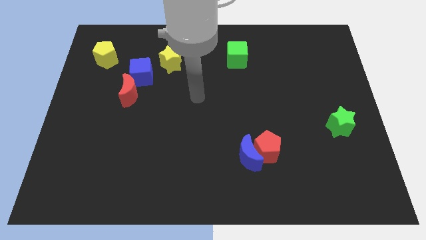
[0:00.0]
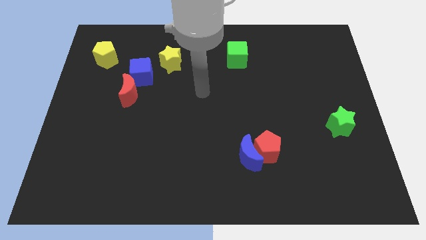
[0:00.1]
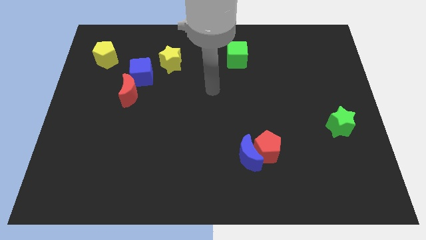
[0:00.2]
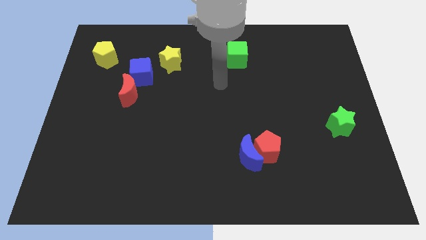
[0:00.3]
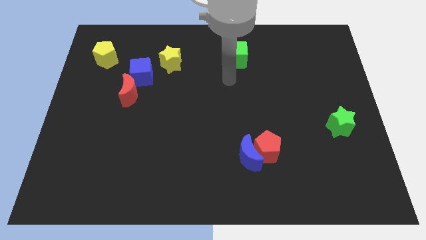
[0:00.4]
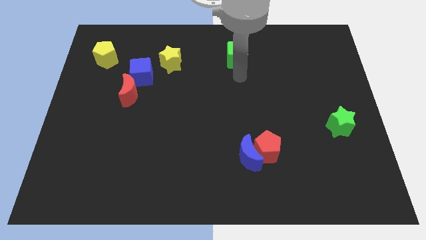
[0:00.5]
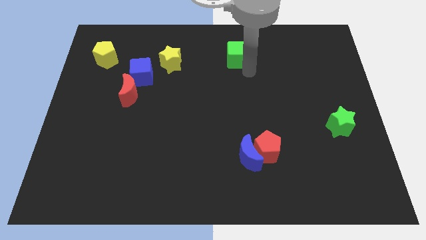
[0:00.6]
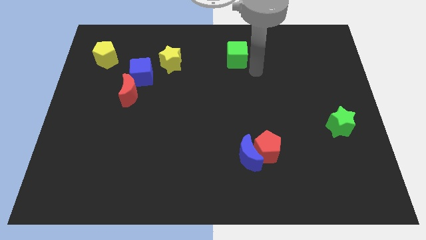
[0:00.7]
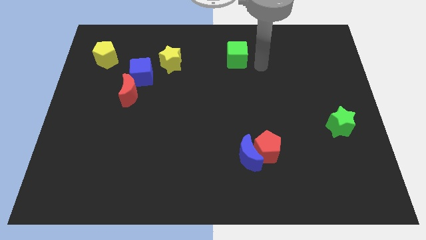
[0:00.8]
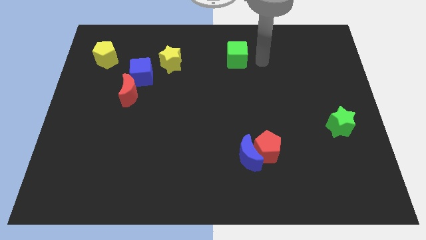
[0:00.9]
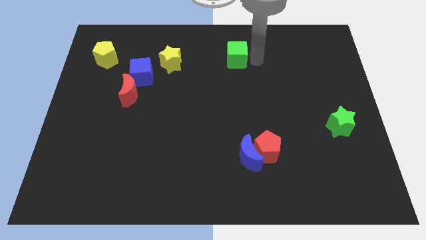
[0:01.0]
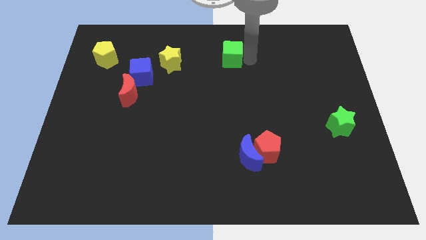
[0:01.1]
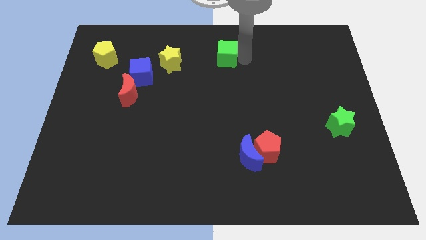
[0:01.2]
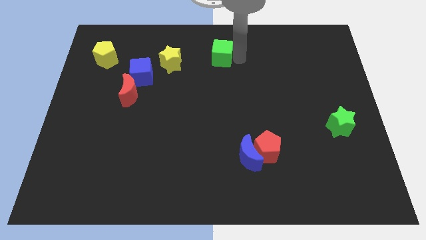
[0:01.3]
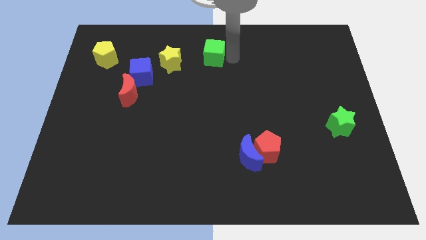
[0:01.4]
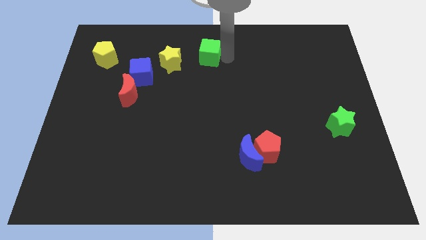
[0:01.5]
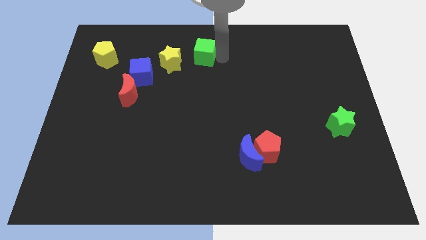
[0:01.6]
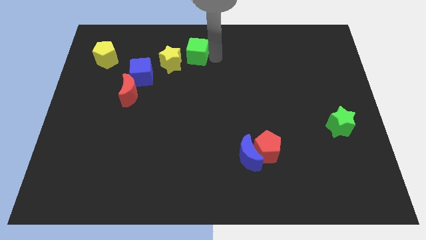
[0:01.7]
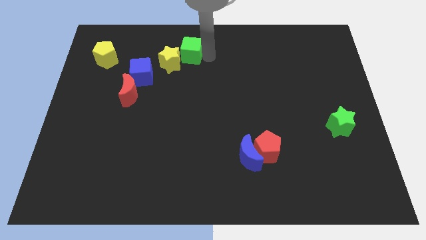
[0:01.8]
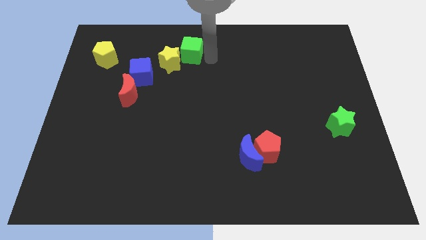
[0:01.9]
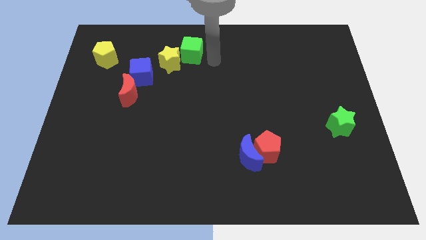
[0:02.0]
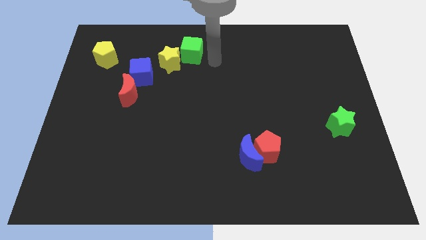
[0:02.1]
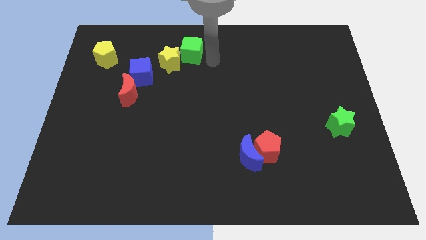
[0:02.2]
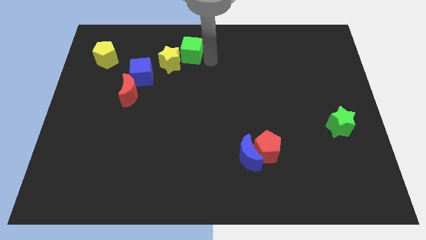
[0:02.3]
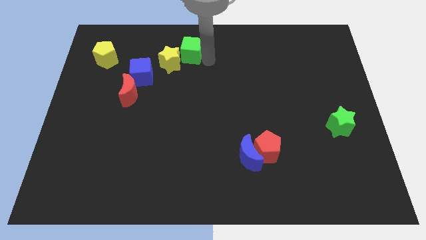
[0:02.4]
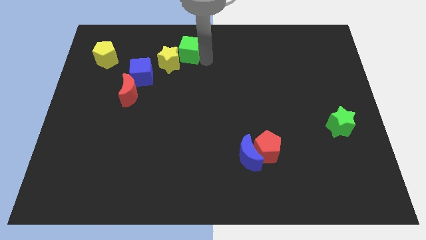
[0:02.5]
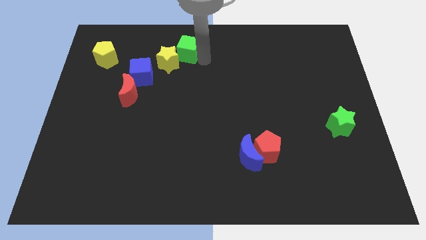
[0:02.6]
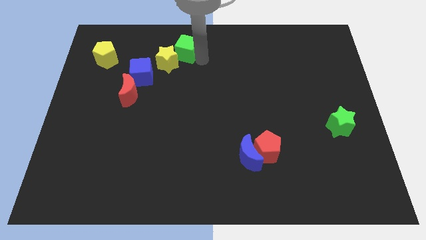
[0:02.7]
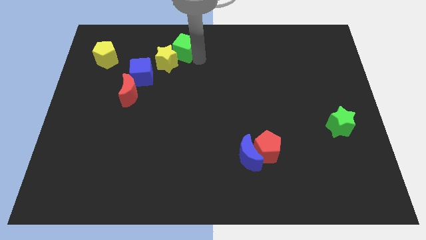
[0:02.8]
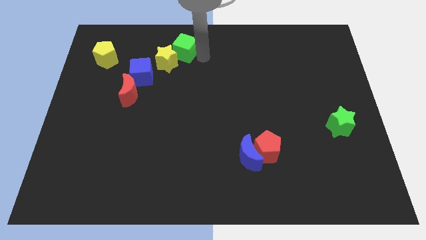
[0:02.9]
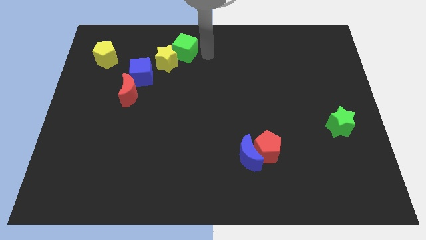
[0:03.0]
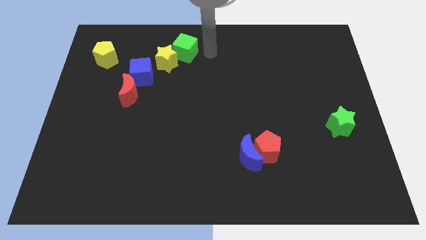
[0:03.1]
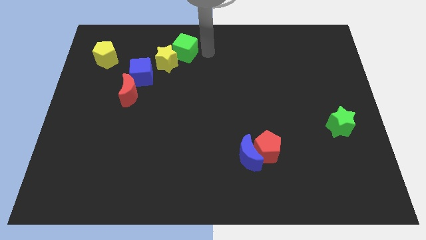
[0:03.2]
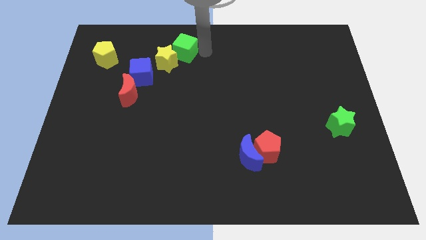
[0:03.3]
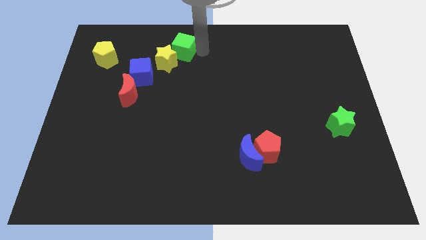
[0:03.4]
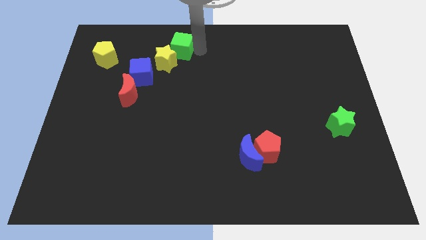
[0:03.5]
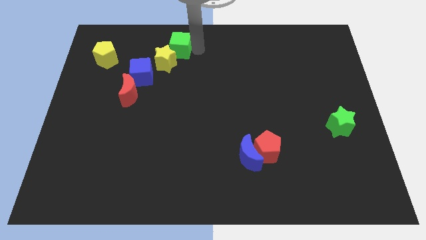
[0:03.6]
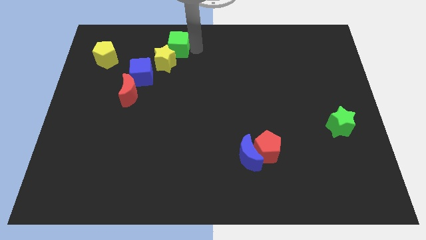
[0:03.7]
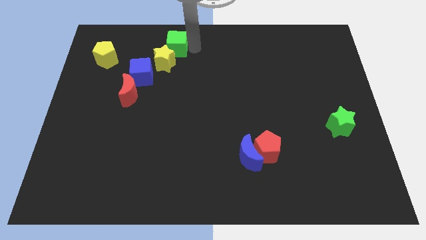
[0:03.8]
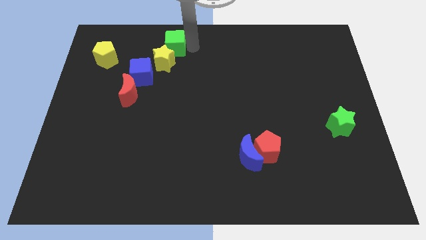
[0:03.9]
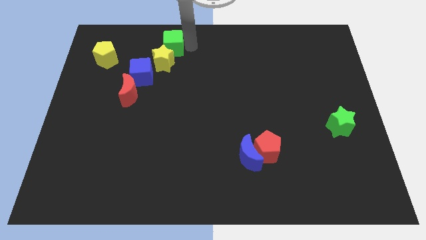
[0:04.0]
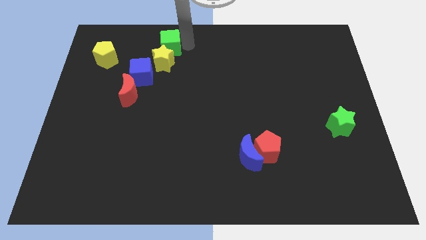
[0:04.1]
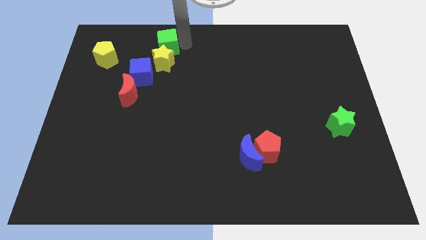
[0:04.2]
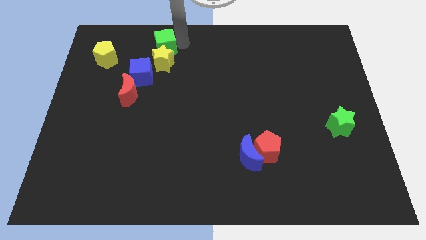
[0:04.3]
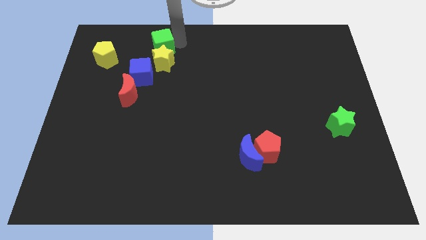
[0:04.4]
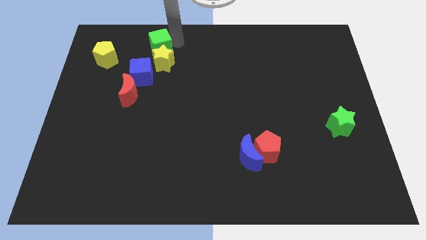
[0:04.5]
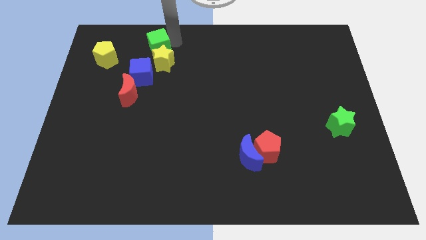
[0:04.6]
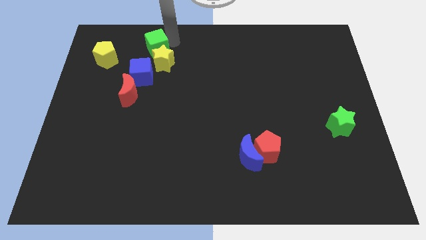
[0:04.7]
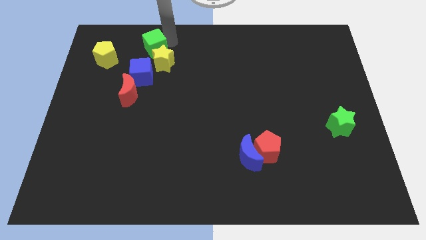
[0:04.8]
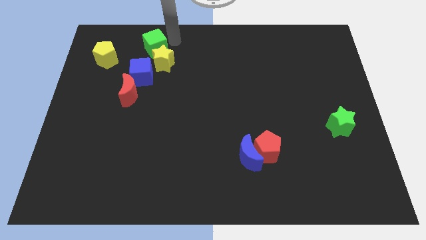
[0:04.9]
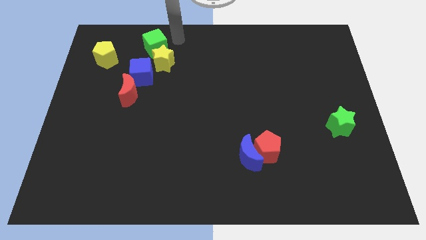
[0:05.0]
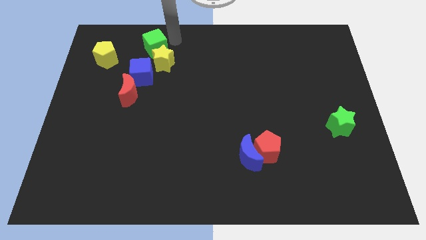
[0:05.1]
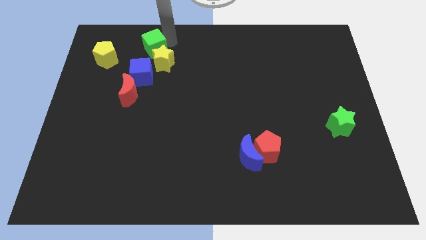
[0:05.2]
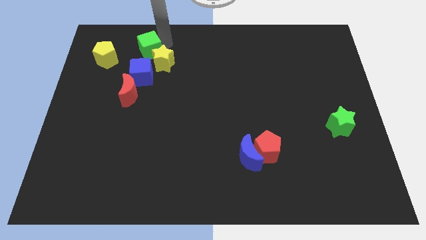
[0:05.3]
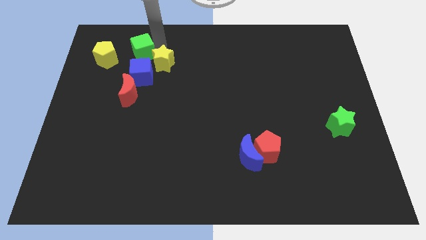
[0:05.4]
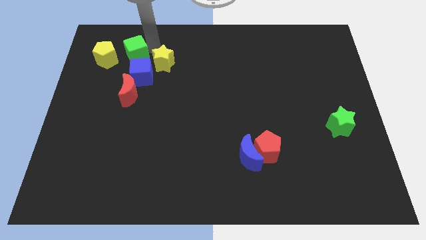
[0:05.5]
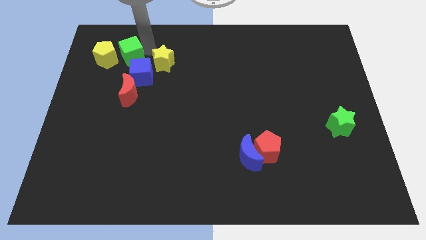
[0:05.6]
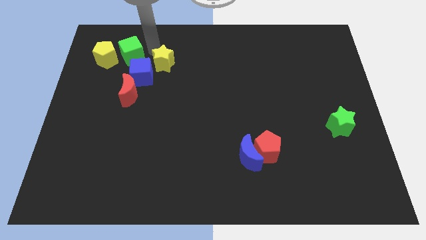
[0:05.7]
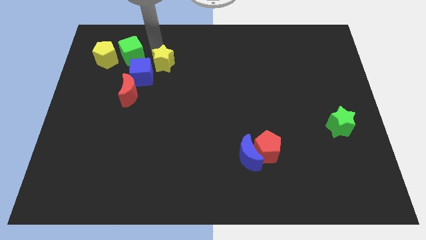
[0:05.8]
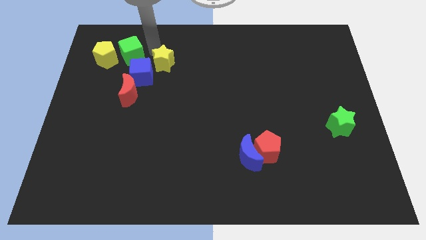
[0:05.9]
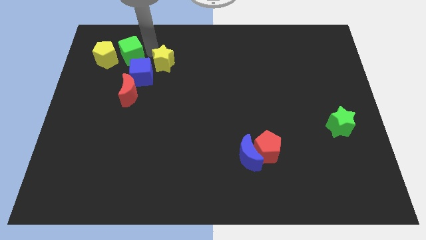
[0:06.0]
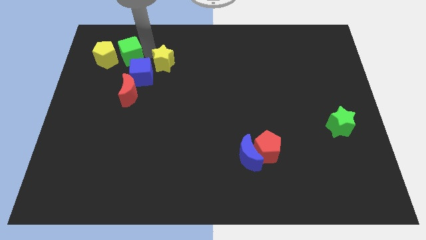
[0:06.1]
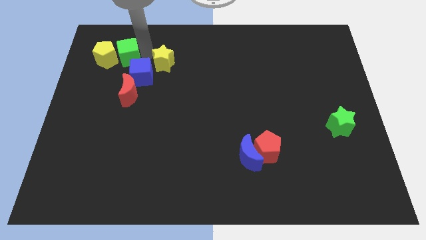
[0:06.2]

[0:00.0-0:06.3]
put the green cube next to the yellow pentagon

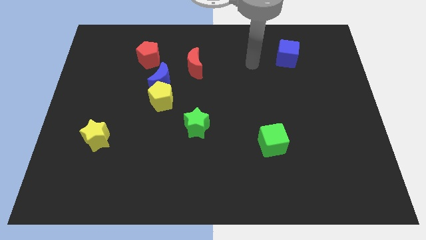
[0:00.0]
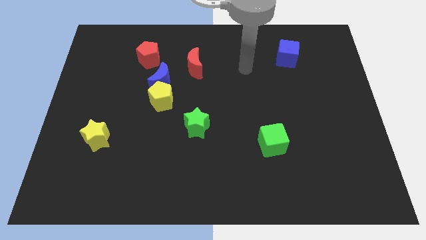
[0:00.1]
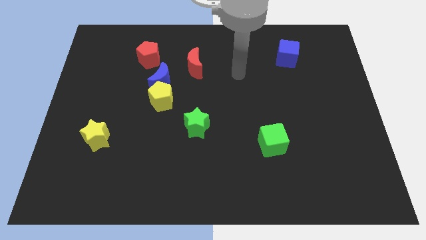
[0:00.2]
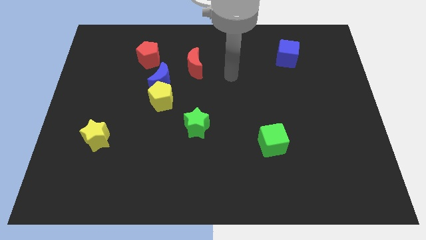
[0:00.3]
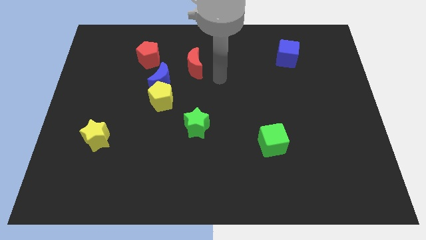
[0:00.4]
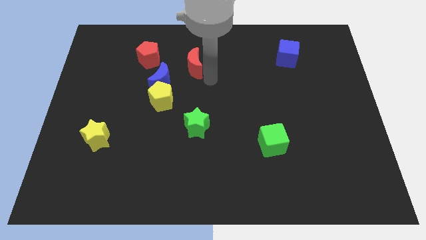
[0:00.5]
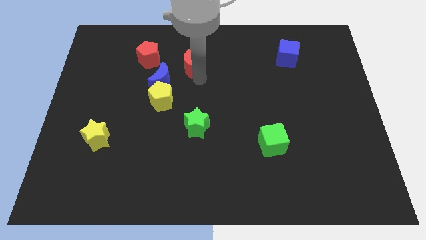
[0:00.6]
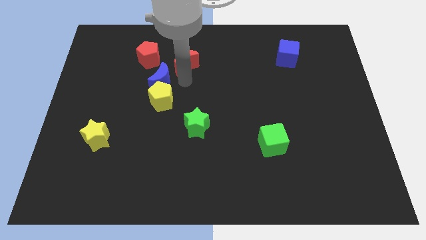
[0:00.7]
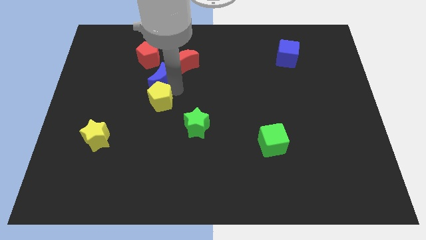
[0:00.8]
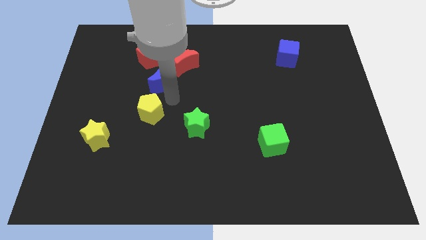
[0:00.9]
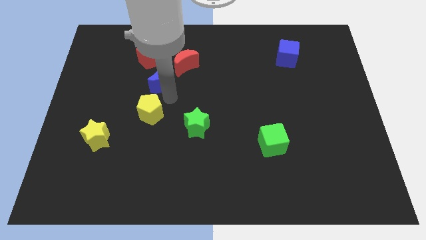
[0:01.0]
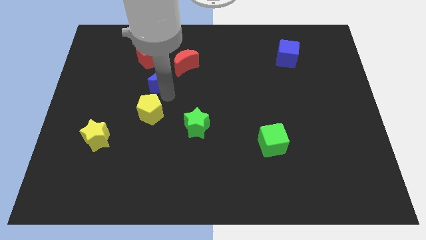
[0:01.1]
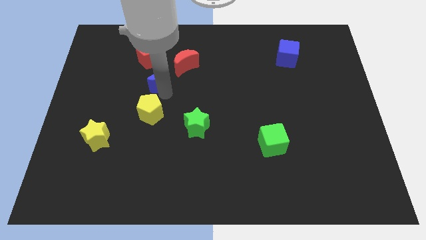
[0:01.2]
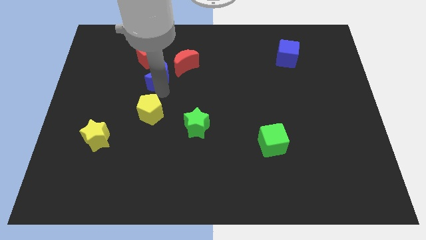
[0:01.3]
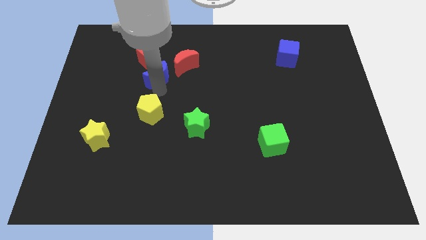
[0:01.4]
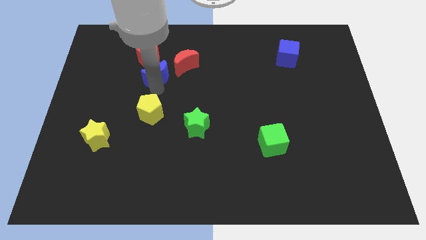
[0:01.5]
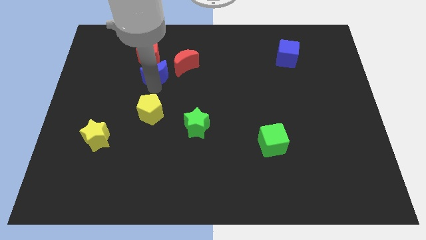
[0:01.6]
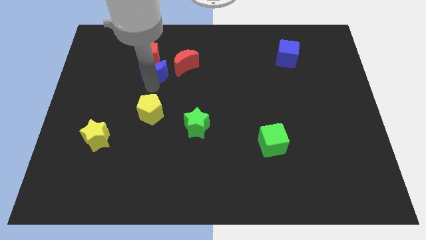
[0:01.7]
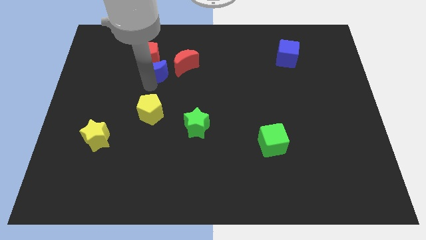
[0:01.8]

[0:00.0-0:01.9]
move the blue moon to the red pentagon
